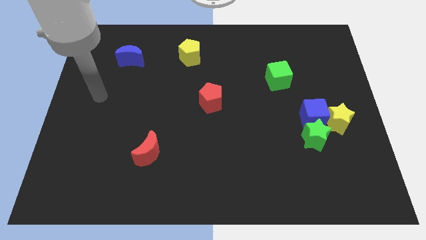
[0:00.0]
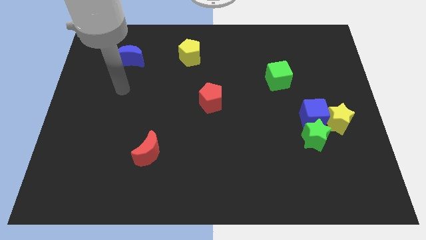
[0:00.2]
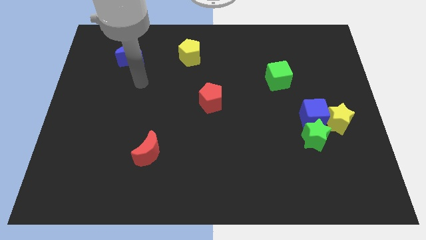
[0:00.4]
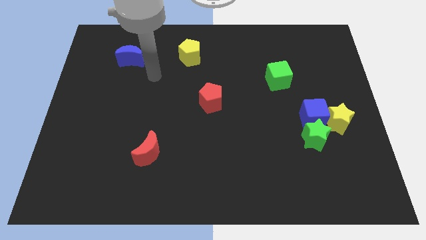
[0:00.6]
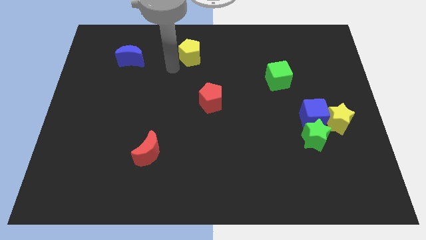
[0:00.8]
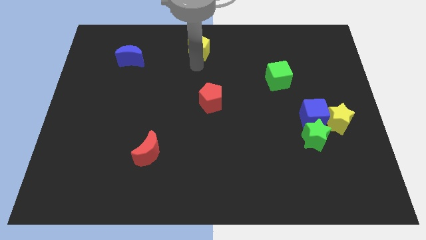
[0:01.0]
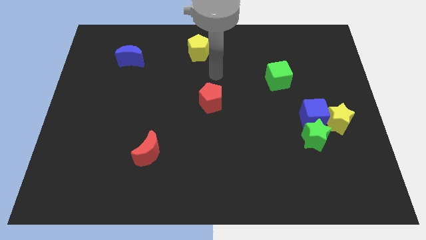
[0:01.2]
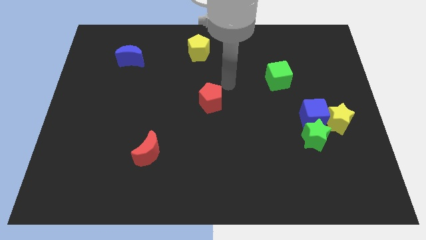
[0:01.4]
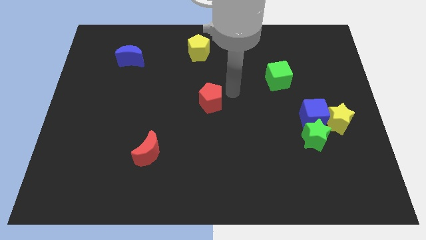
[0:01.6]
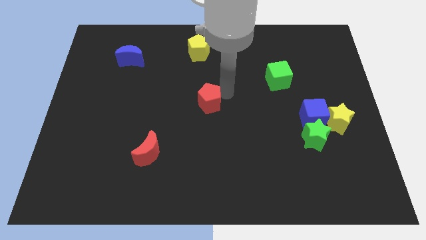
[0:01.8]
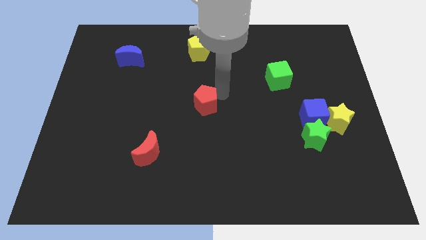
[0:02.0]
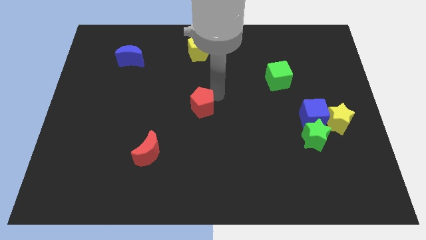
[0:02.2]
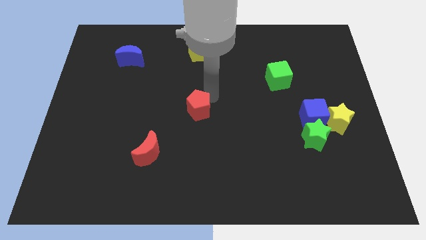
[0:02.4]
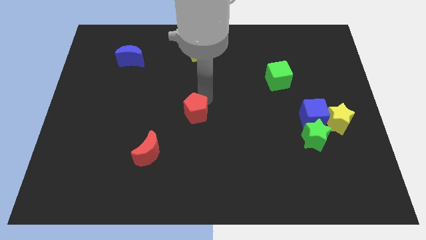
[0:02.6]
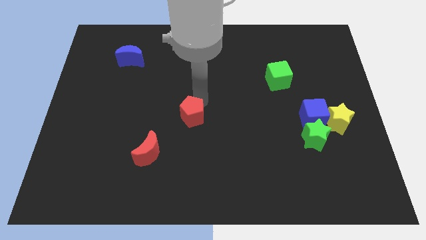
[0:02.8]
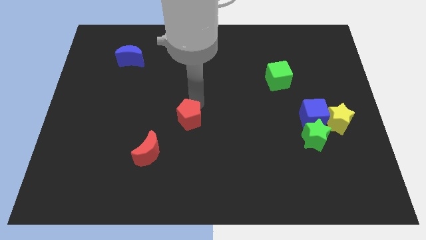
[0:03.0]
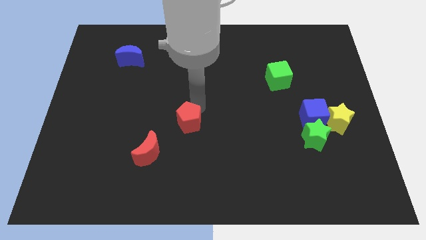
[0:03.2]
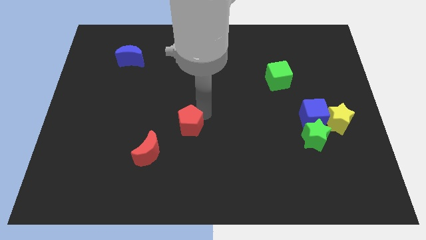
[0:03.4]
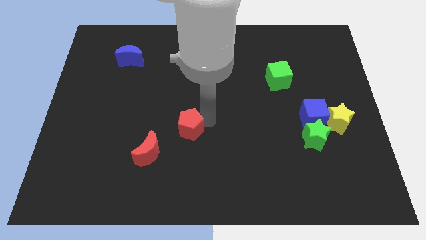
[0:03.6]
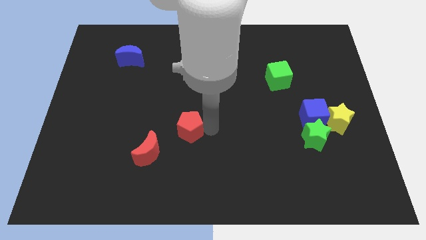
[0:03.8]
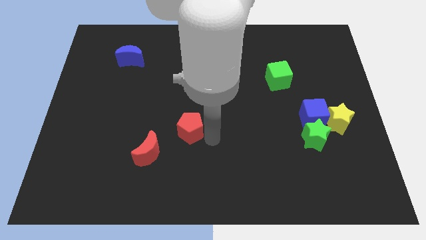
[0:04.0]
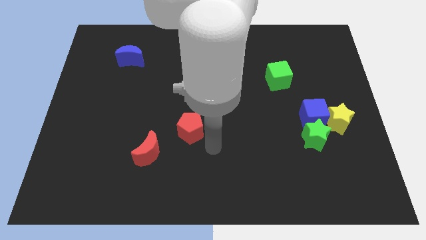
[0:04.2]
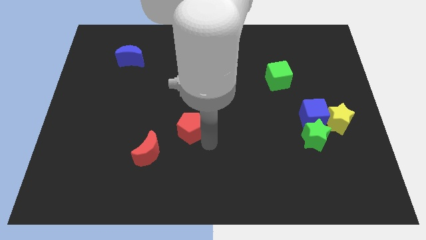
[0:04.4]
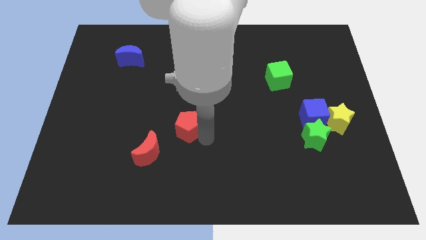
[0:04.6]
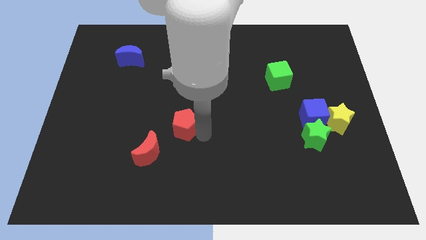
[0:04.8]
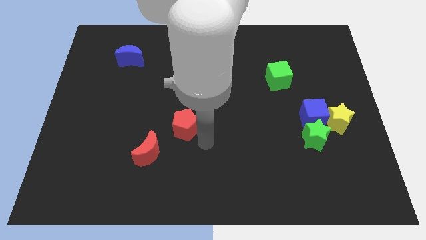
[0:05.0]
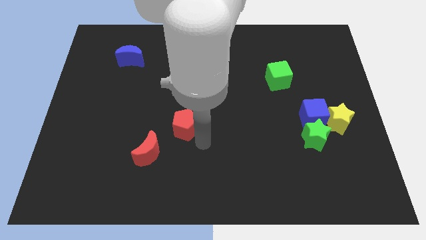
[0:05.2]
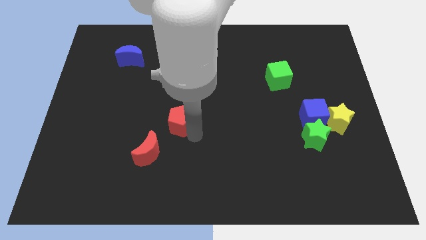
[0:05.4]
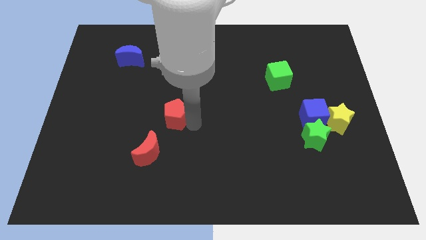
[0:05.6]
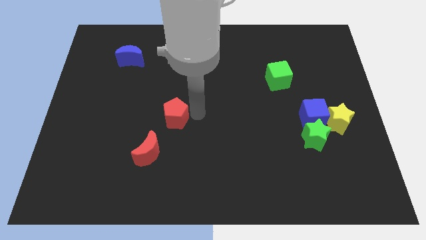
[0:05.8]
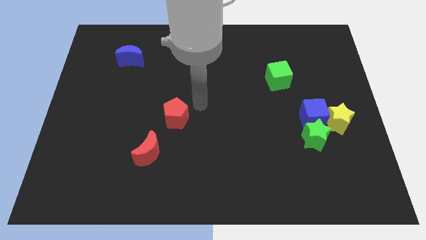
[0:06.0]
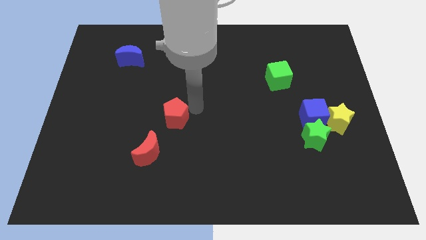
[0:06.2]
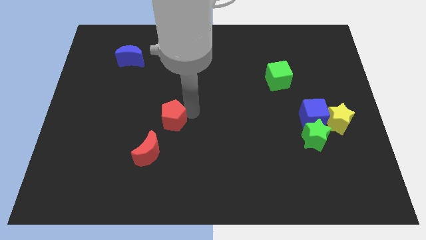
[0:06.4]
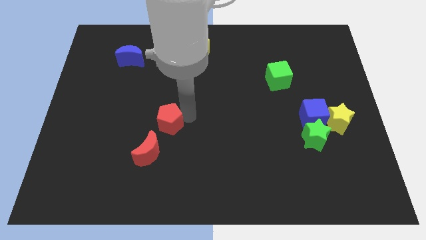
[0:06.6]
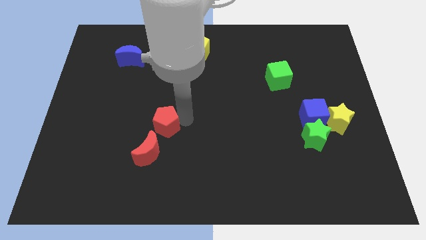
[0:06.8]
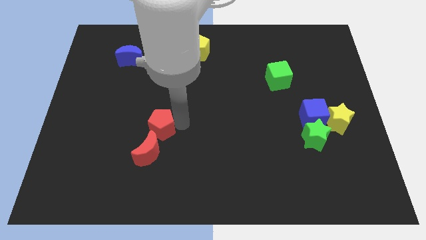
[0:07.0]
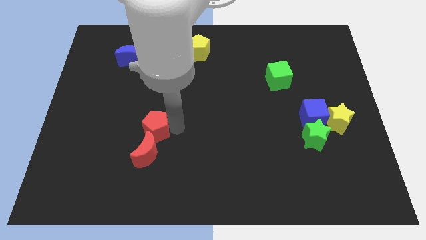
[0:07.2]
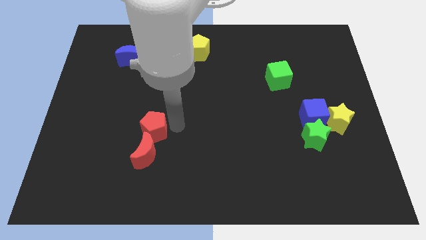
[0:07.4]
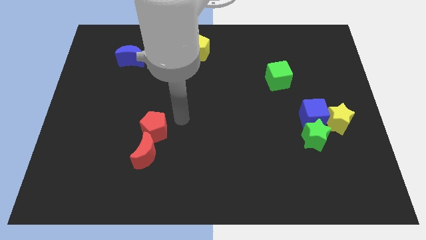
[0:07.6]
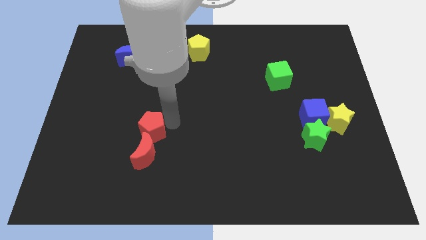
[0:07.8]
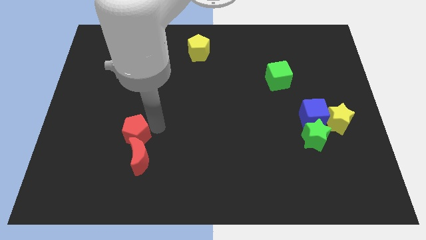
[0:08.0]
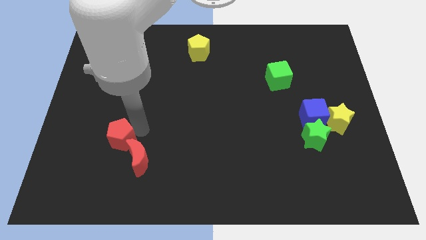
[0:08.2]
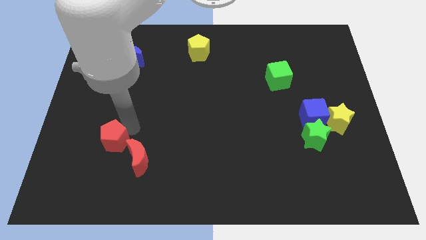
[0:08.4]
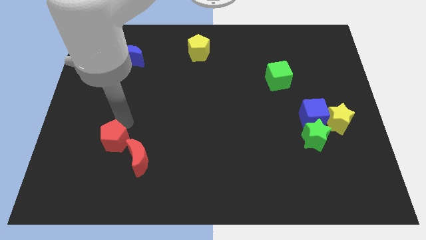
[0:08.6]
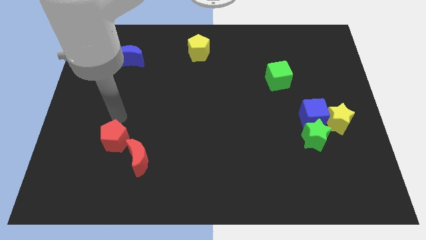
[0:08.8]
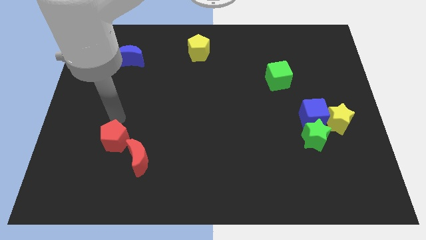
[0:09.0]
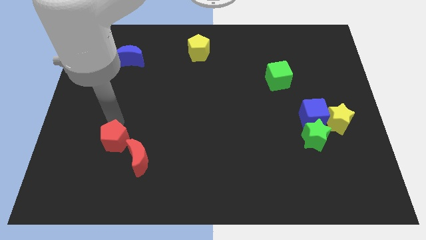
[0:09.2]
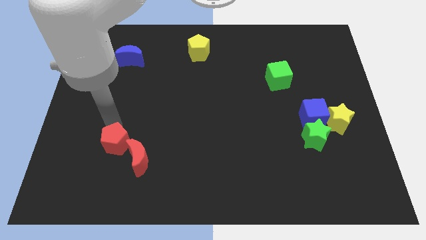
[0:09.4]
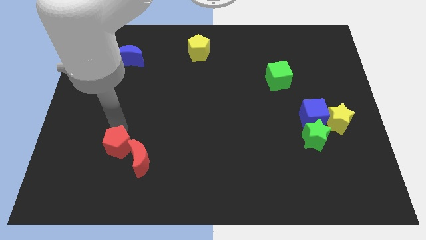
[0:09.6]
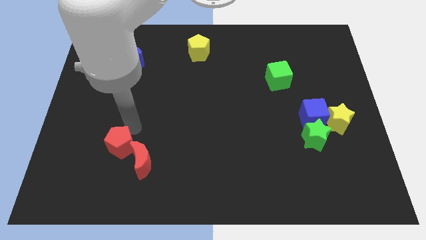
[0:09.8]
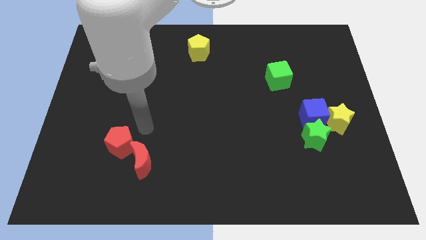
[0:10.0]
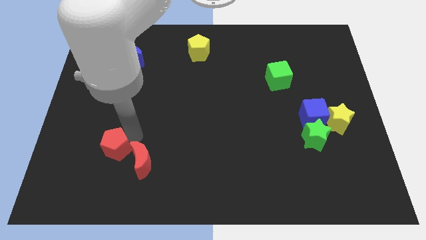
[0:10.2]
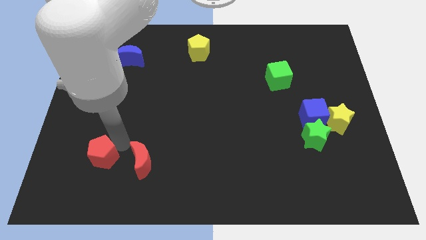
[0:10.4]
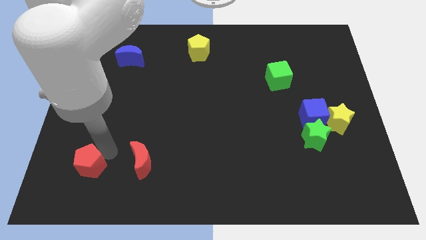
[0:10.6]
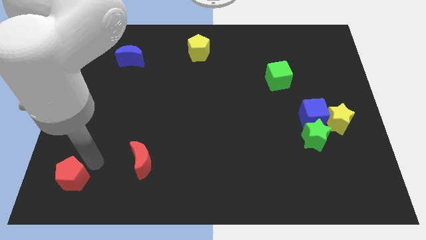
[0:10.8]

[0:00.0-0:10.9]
push the red pentagon to the bottom left corner
